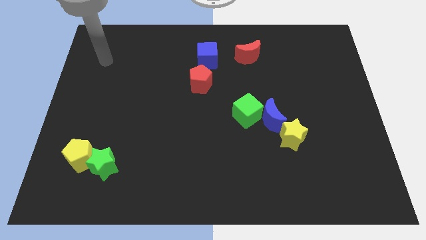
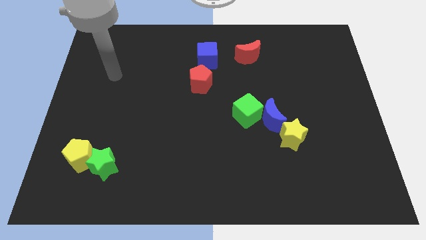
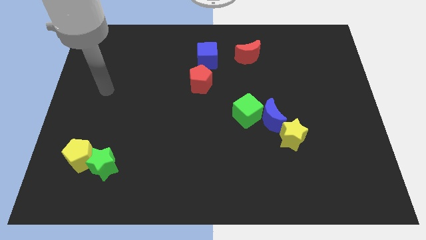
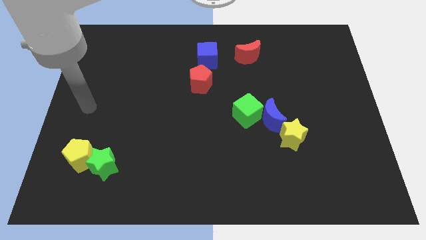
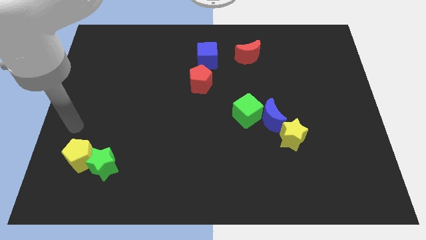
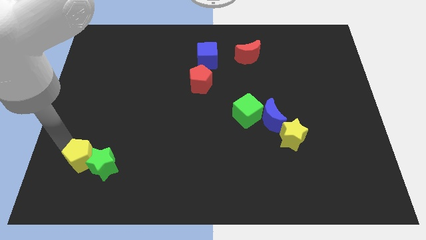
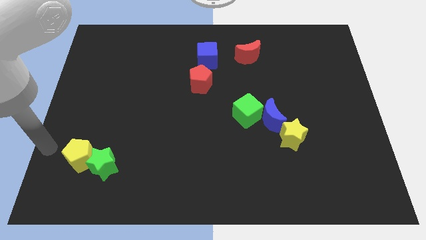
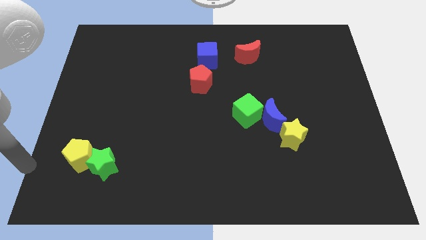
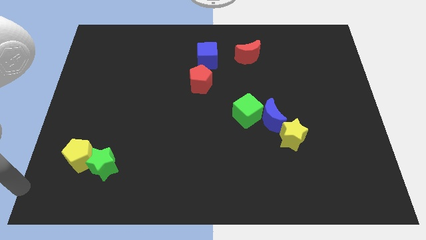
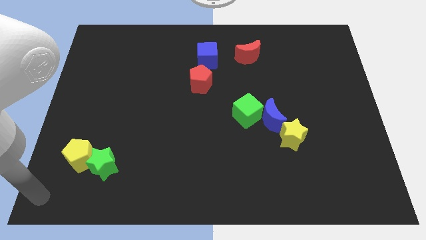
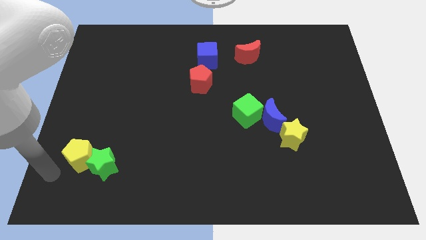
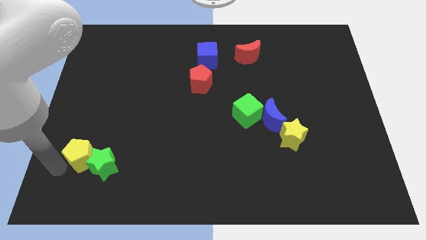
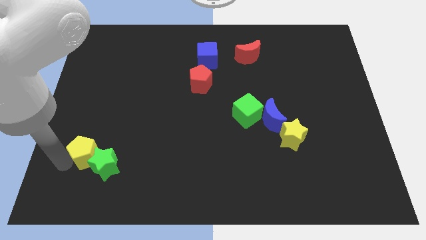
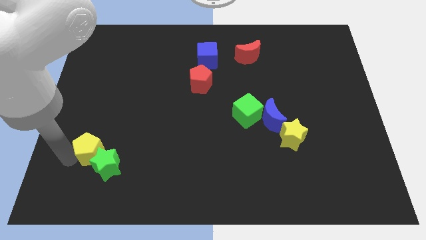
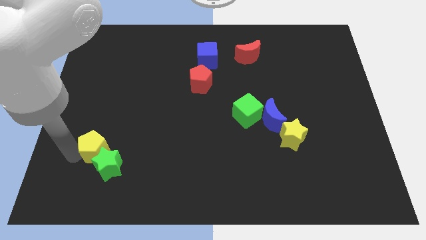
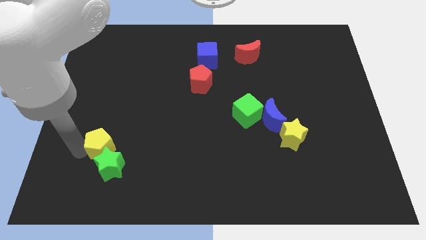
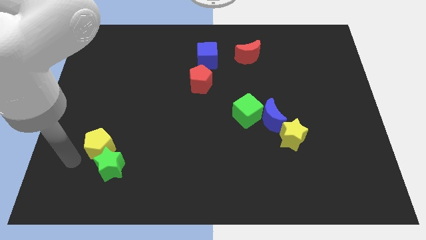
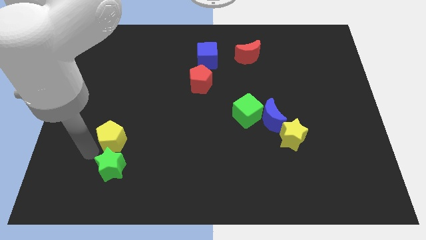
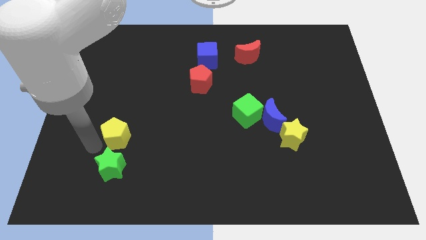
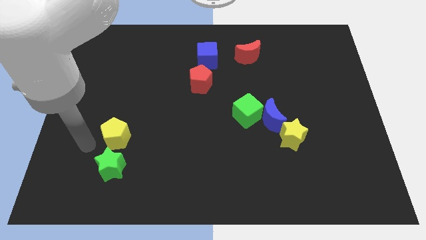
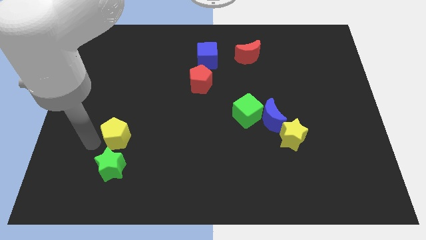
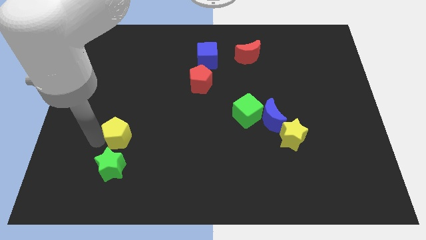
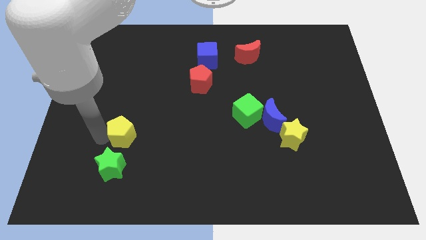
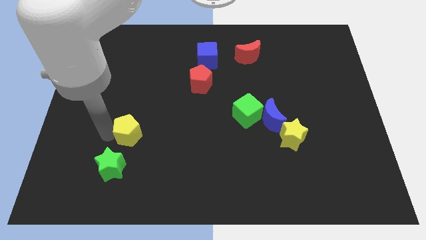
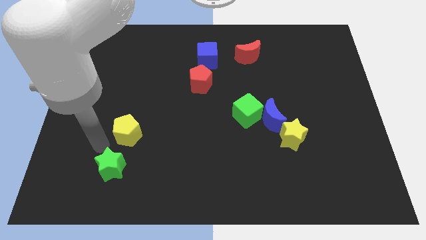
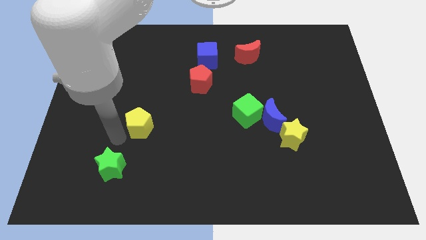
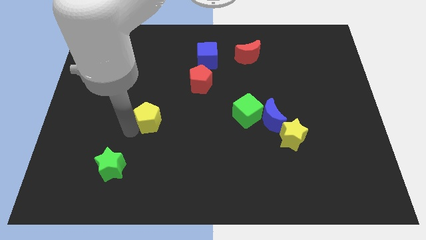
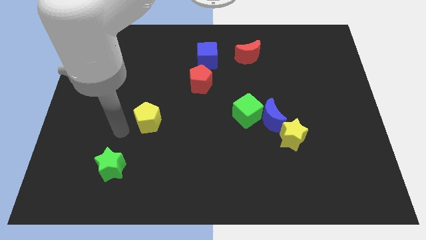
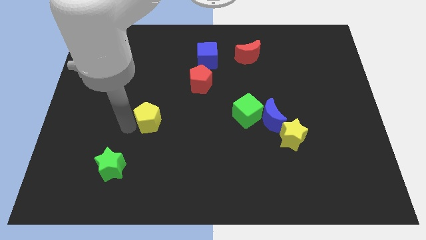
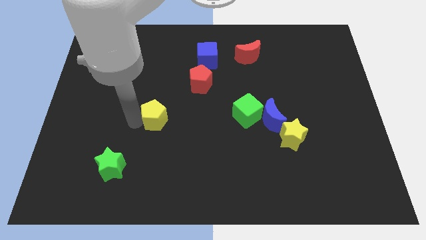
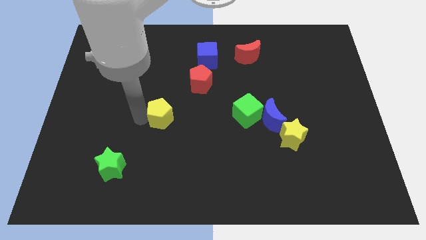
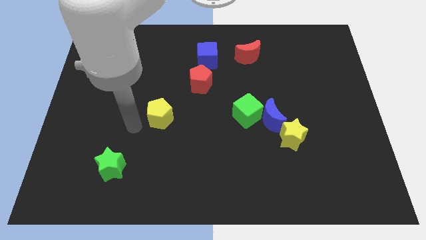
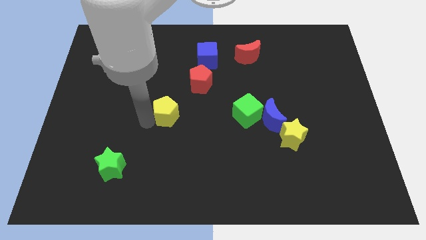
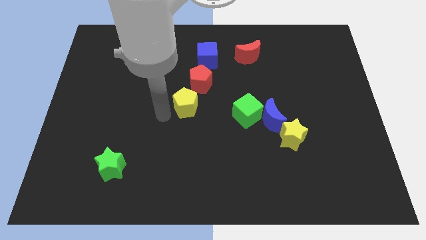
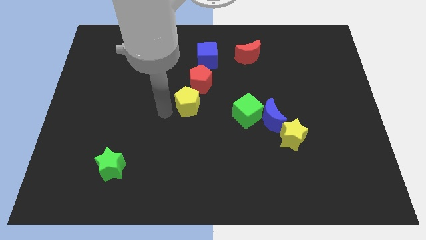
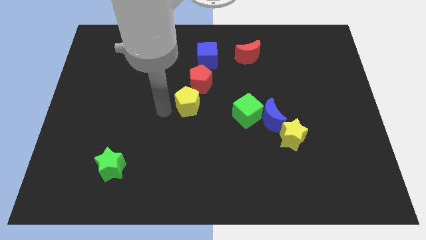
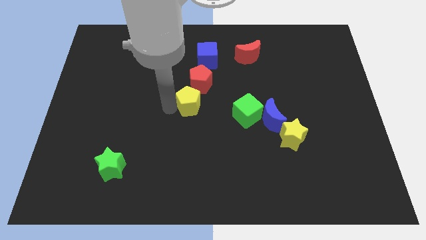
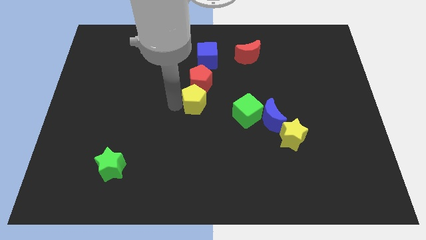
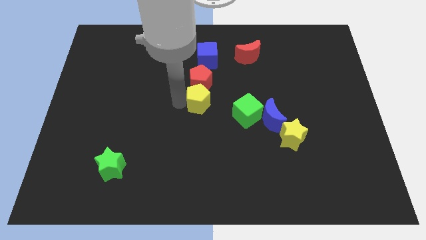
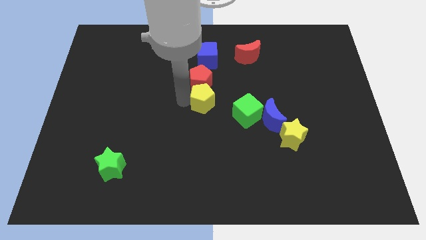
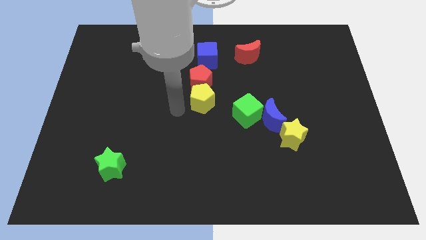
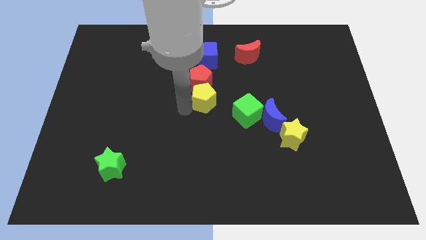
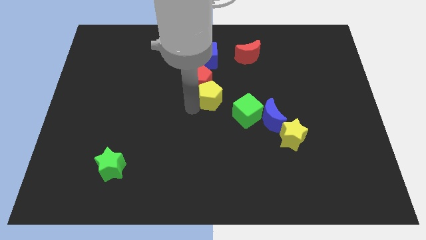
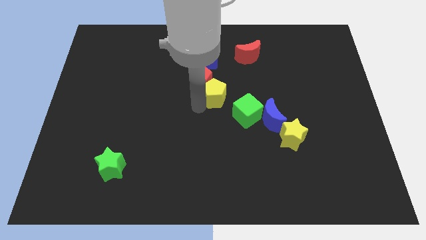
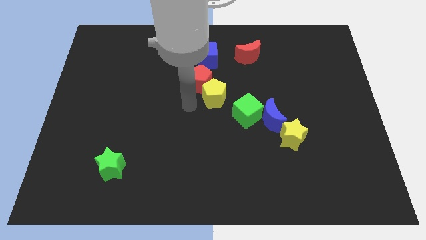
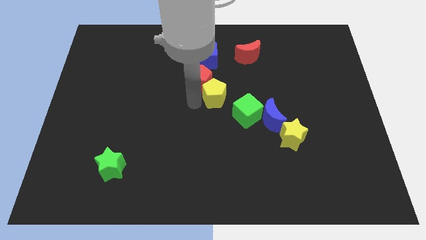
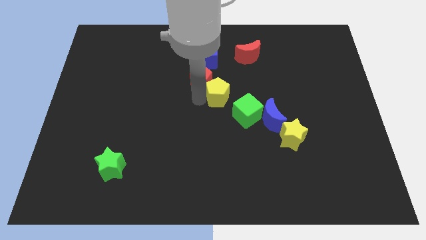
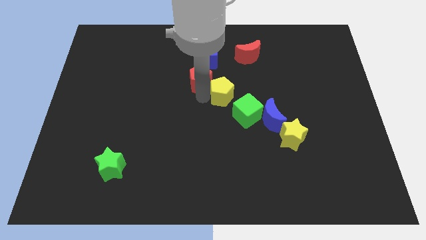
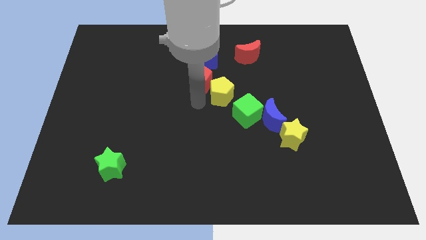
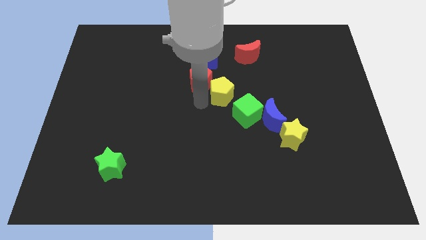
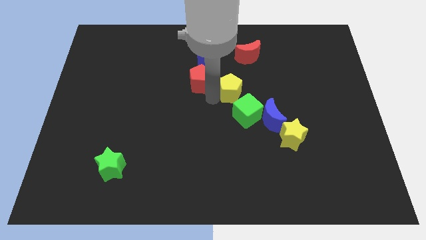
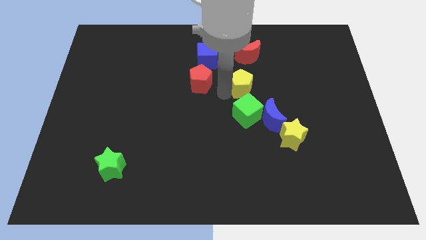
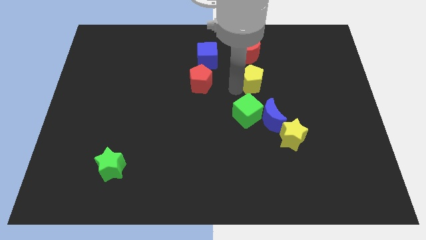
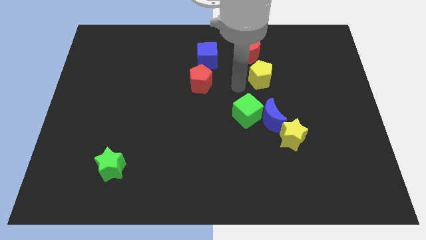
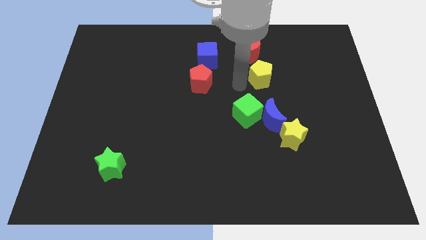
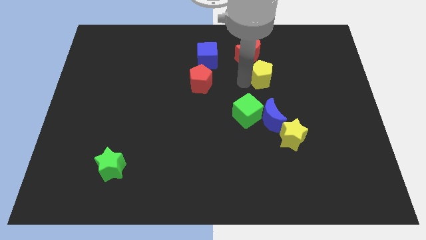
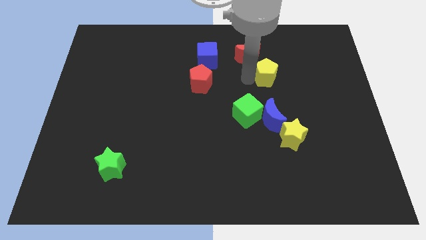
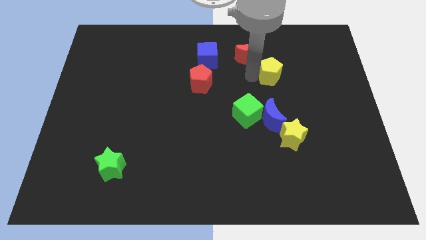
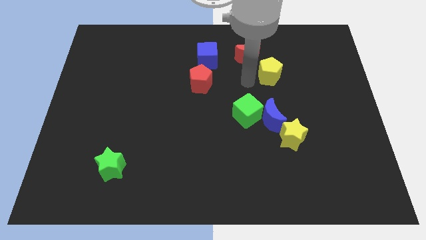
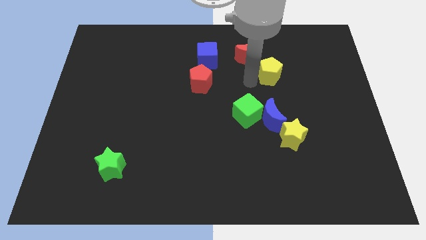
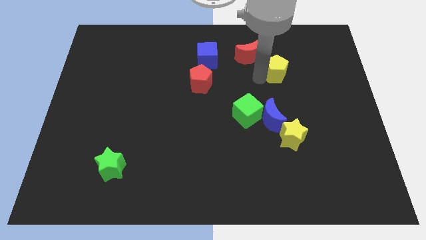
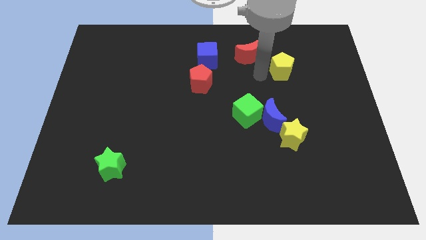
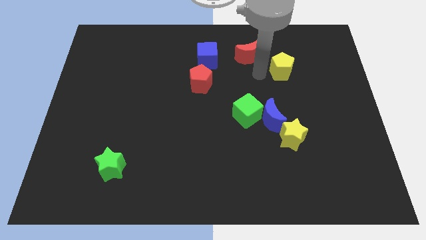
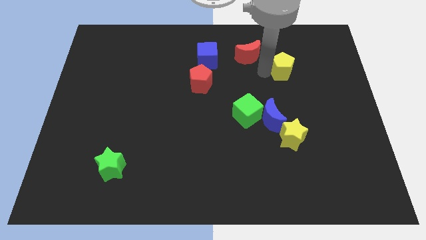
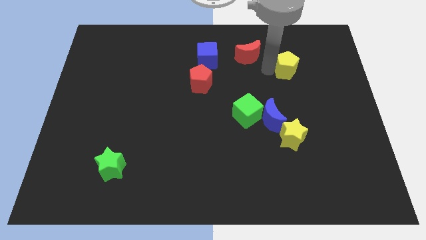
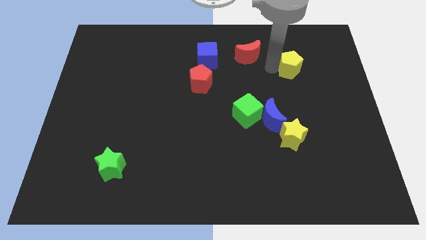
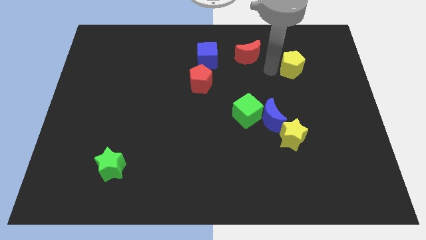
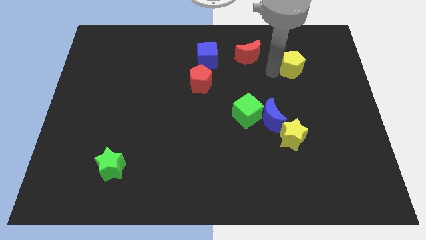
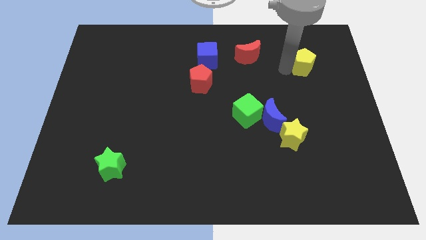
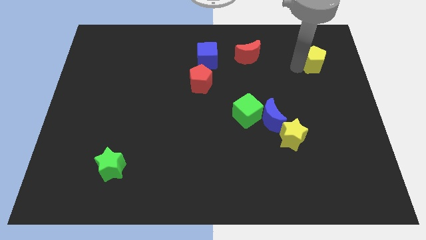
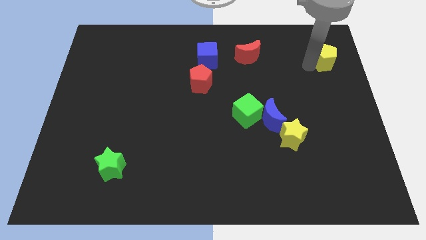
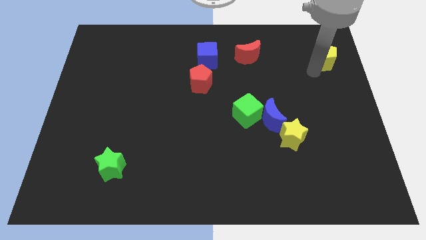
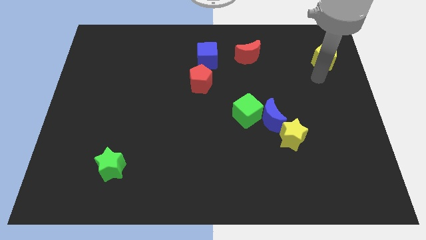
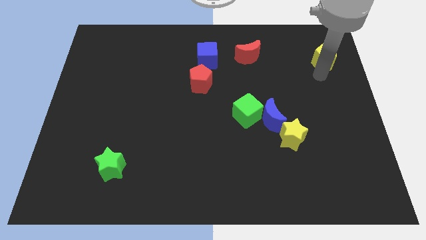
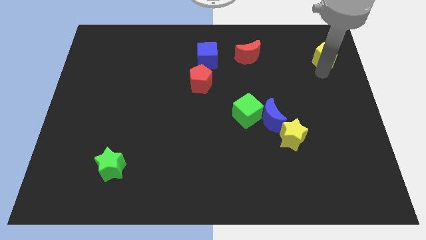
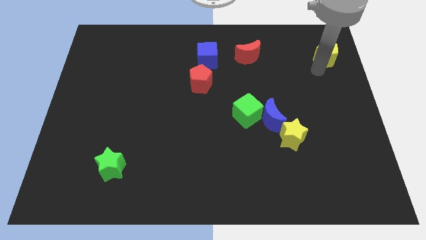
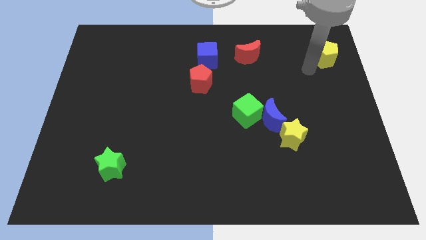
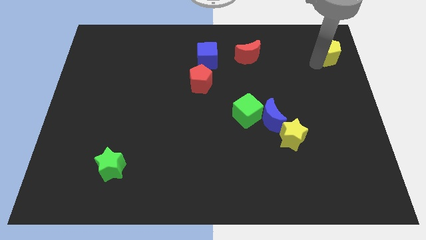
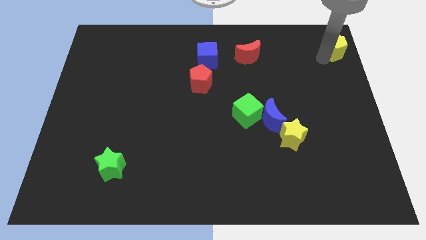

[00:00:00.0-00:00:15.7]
slide the yellow pentagon to the top right
